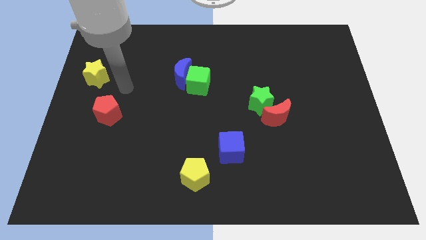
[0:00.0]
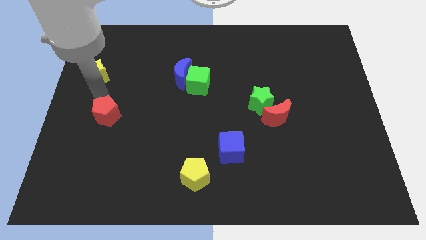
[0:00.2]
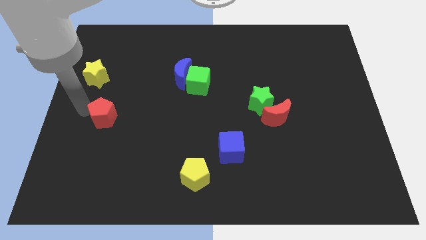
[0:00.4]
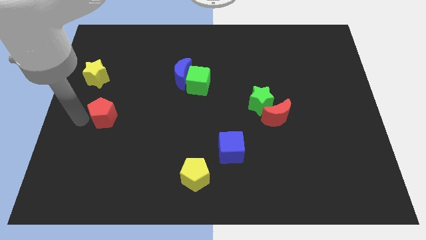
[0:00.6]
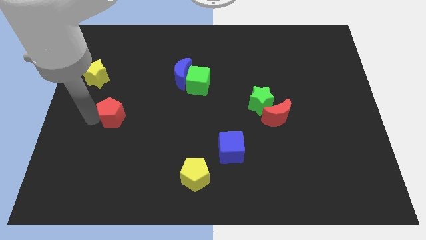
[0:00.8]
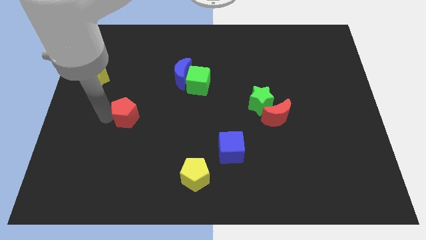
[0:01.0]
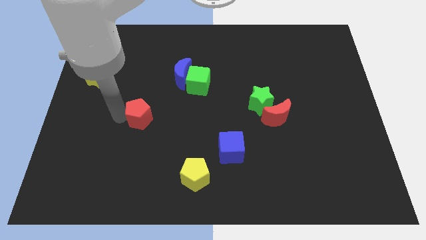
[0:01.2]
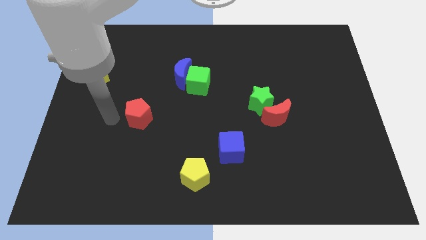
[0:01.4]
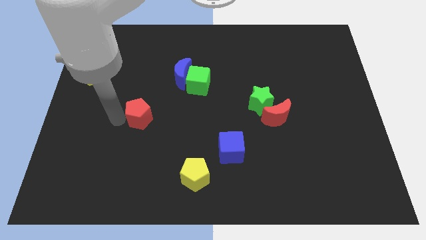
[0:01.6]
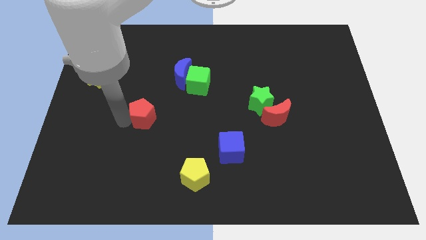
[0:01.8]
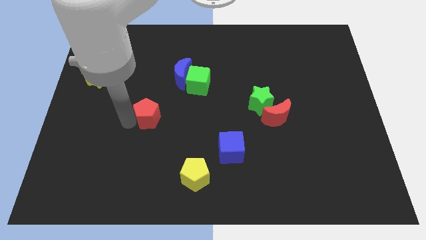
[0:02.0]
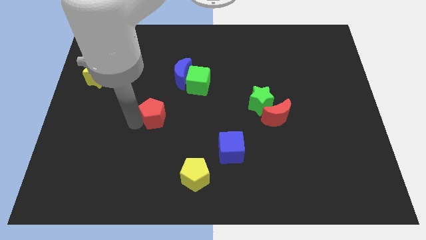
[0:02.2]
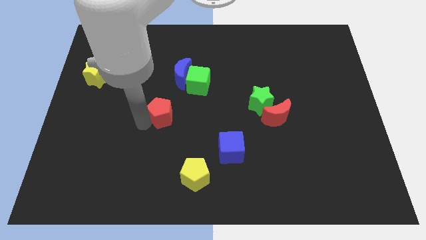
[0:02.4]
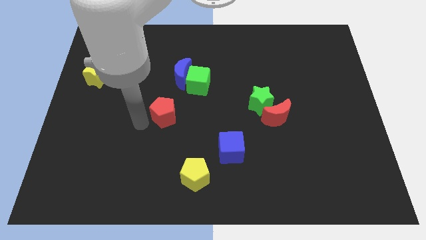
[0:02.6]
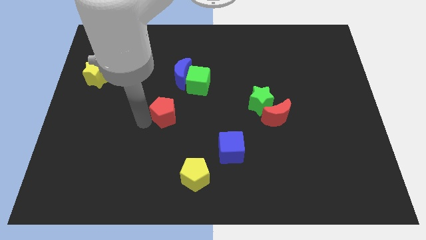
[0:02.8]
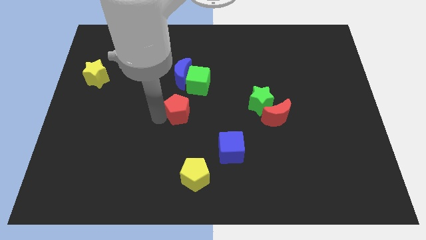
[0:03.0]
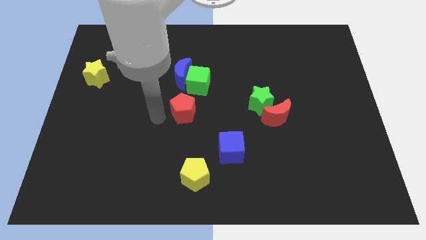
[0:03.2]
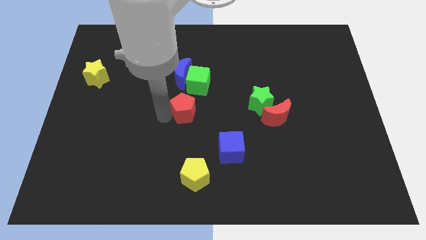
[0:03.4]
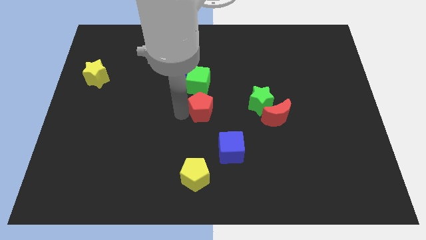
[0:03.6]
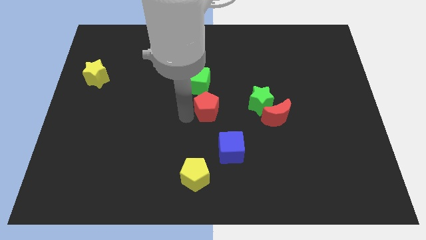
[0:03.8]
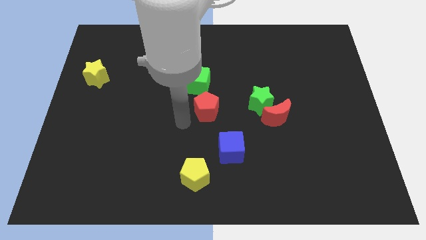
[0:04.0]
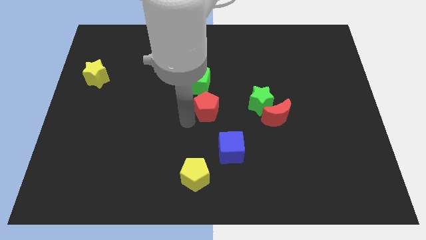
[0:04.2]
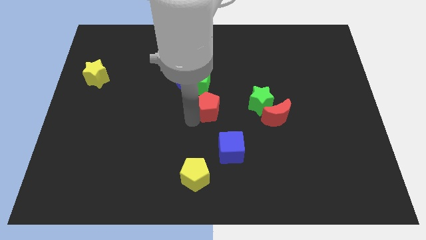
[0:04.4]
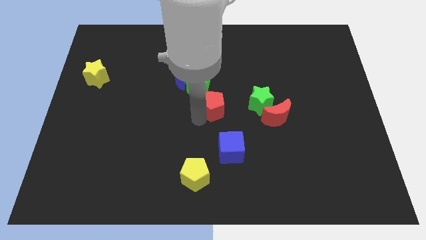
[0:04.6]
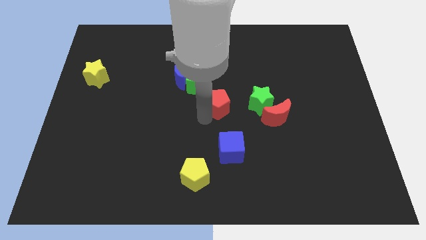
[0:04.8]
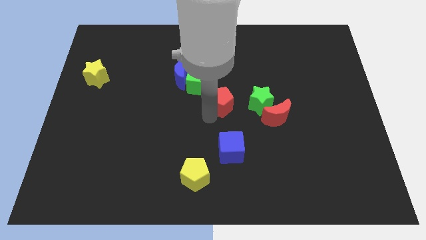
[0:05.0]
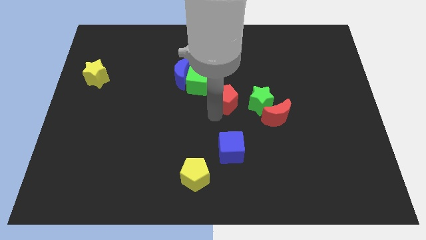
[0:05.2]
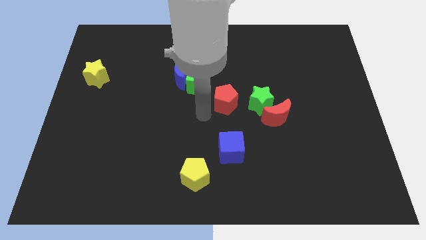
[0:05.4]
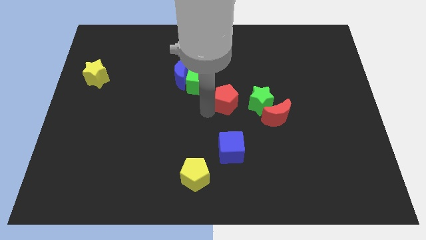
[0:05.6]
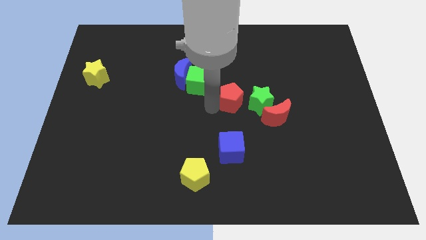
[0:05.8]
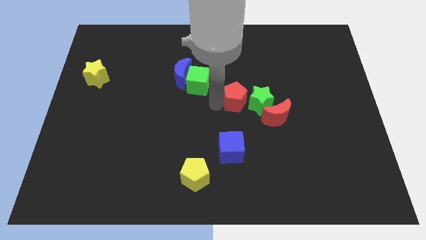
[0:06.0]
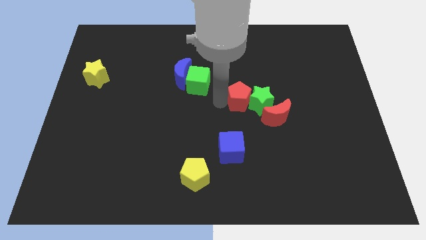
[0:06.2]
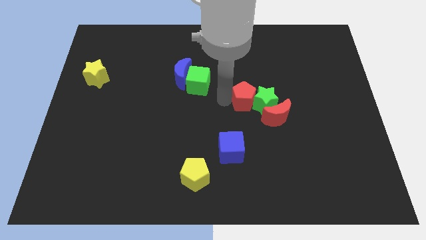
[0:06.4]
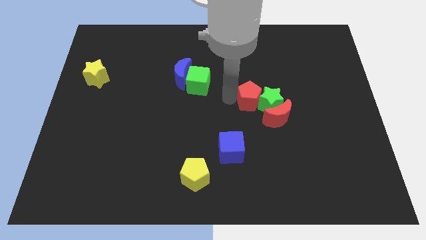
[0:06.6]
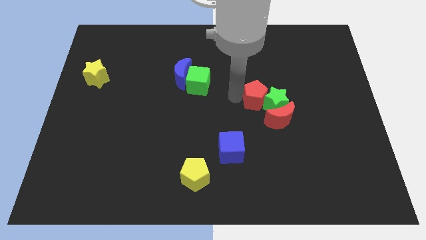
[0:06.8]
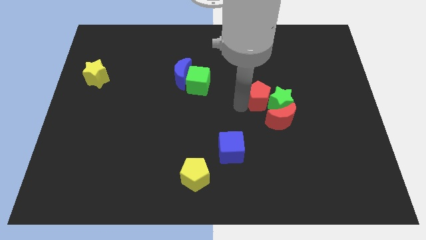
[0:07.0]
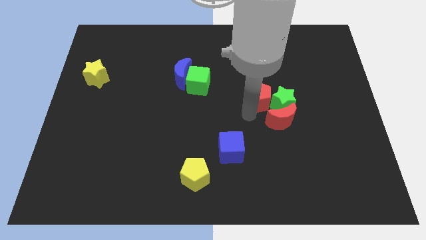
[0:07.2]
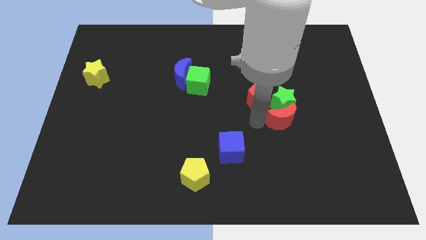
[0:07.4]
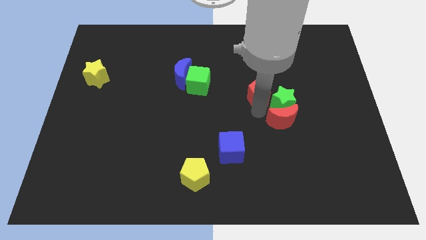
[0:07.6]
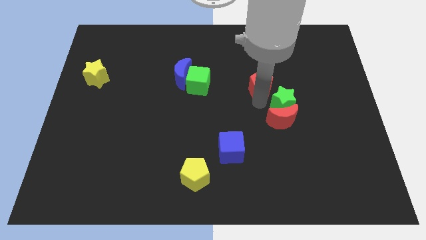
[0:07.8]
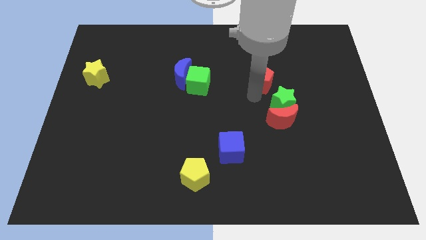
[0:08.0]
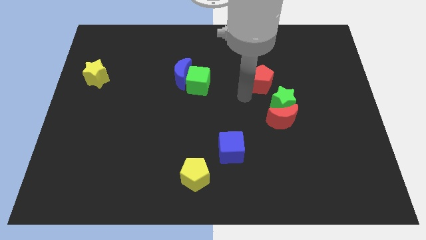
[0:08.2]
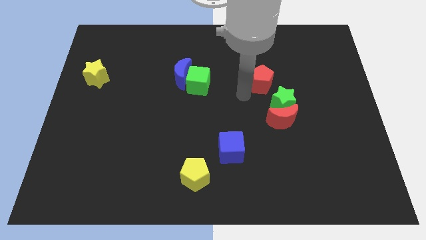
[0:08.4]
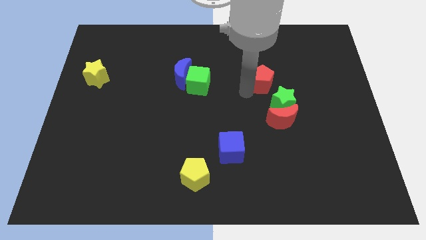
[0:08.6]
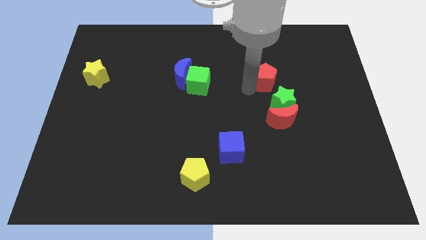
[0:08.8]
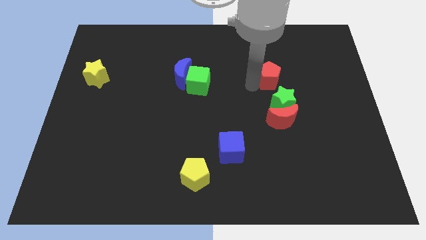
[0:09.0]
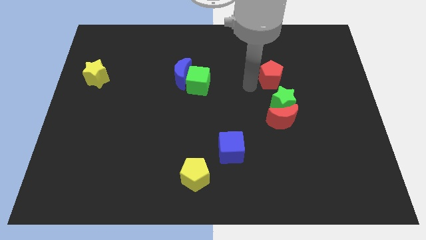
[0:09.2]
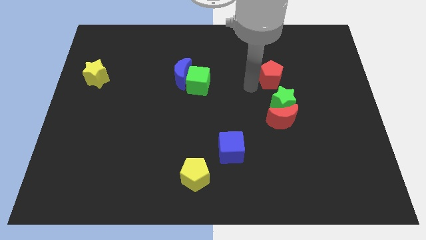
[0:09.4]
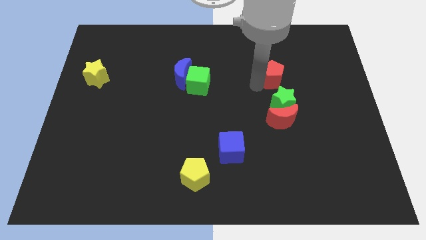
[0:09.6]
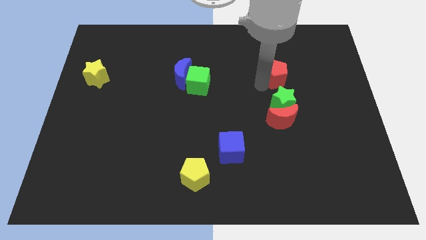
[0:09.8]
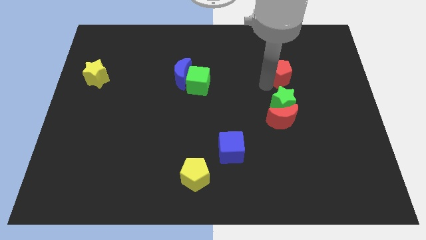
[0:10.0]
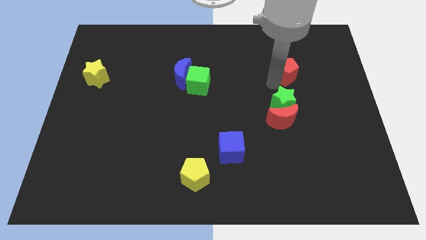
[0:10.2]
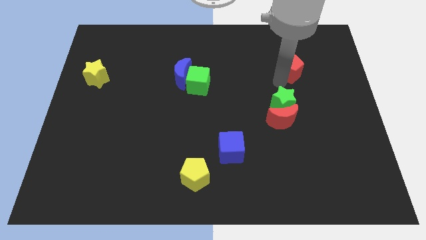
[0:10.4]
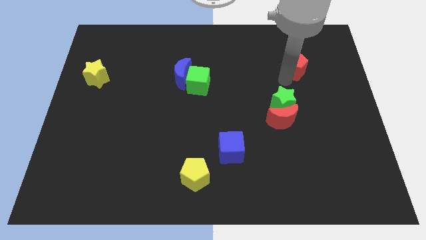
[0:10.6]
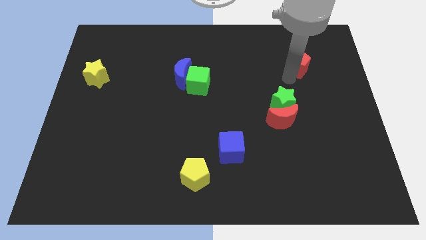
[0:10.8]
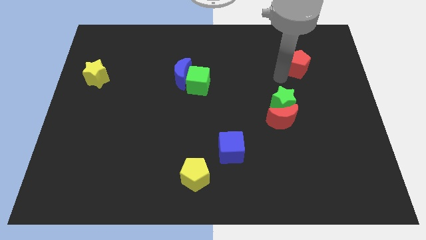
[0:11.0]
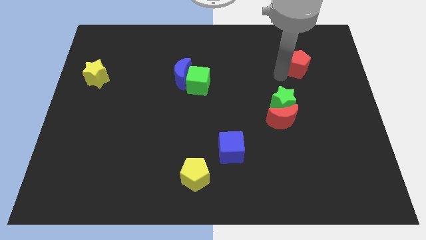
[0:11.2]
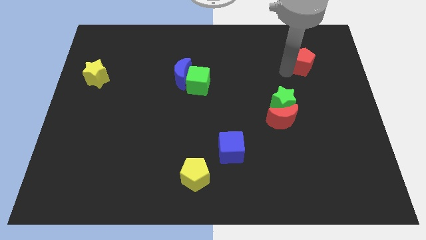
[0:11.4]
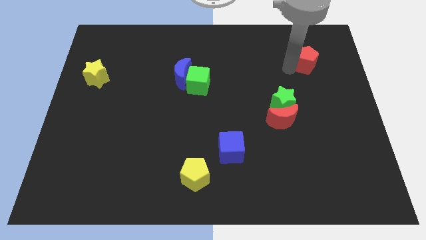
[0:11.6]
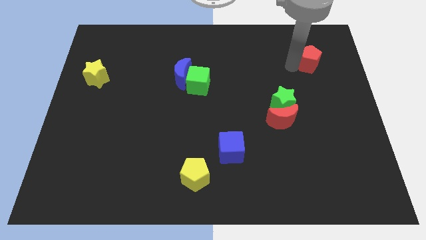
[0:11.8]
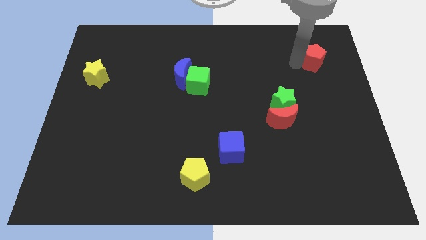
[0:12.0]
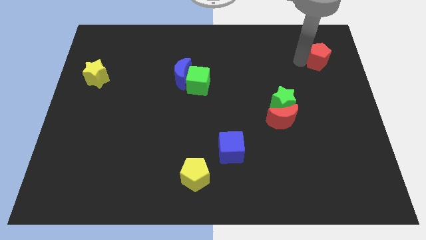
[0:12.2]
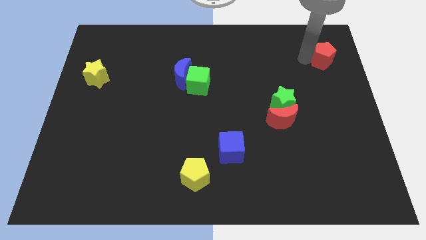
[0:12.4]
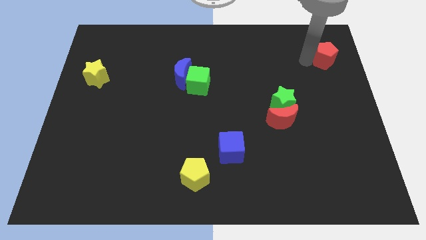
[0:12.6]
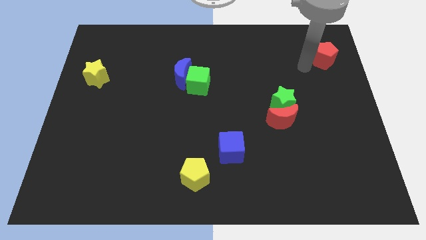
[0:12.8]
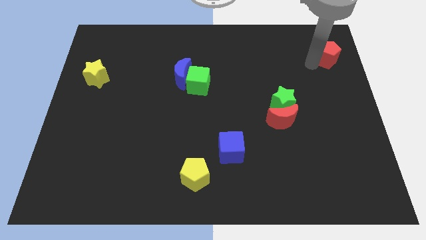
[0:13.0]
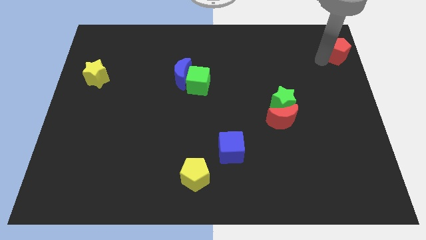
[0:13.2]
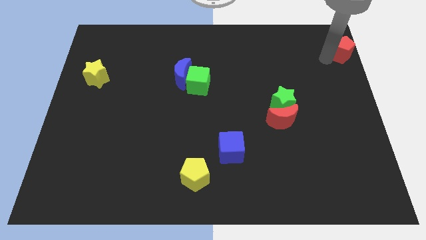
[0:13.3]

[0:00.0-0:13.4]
slide the red pentagon to the top right
